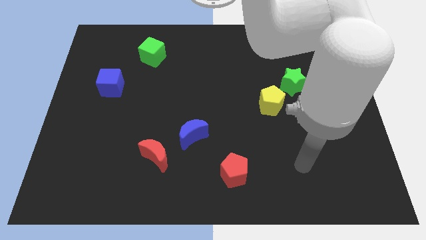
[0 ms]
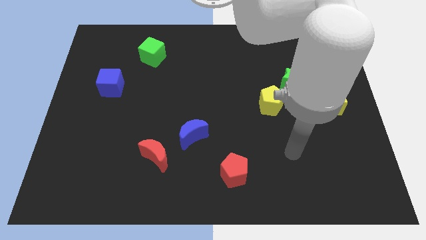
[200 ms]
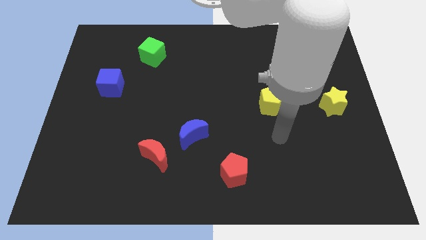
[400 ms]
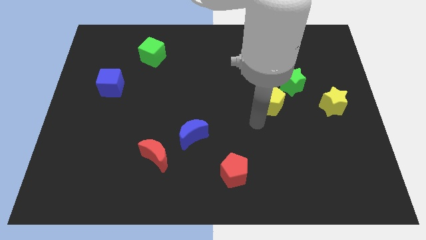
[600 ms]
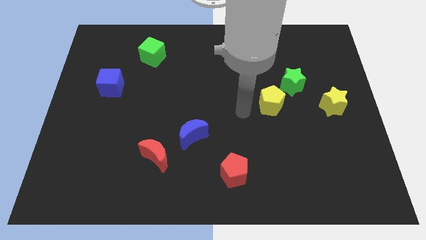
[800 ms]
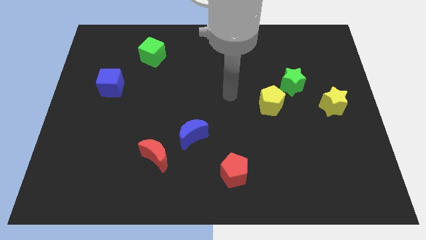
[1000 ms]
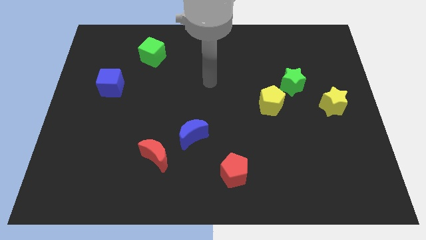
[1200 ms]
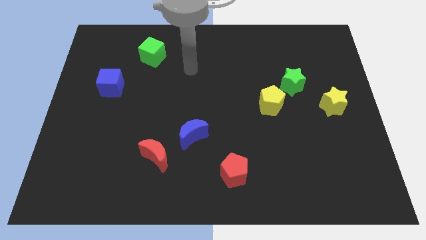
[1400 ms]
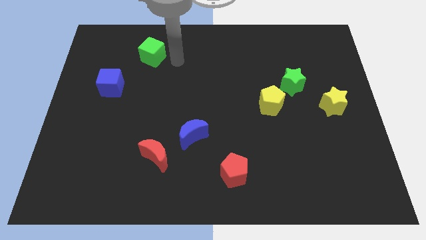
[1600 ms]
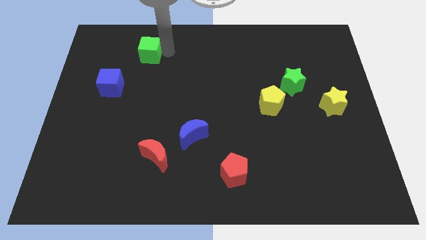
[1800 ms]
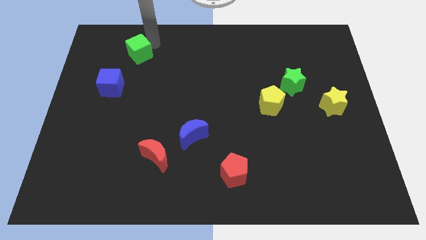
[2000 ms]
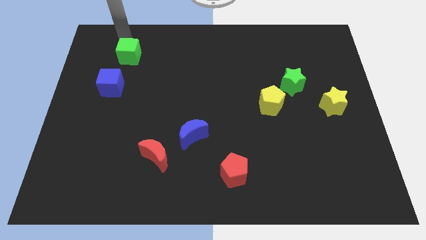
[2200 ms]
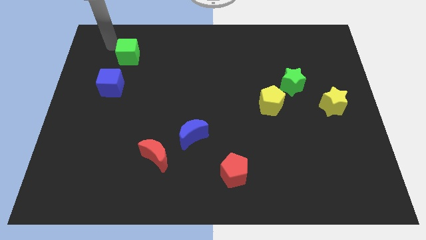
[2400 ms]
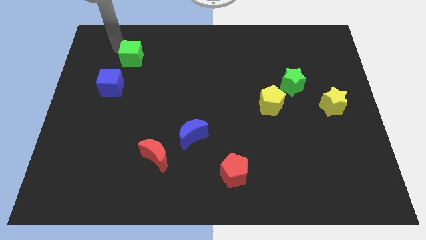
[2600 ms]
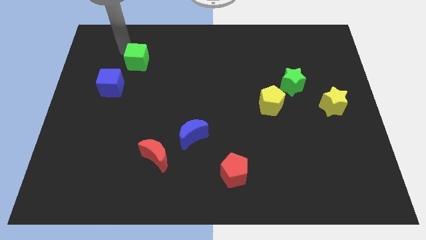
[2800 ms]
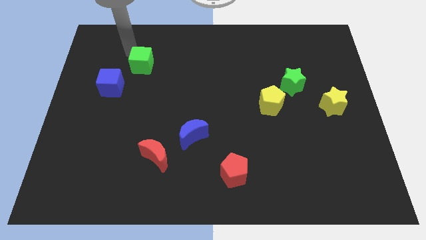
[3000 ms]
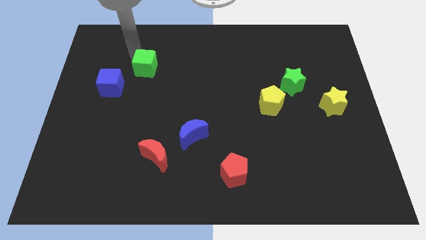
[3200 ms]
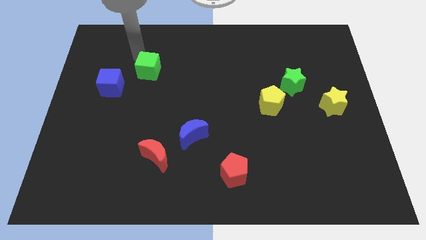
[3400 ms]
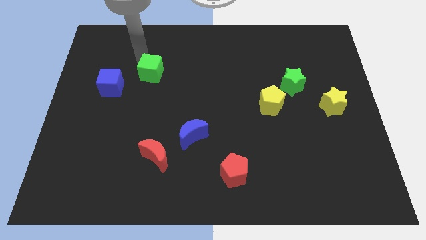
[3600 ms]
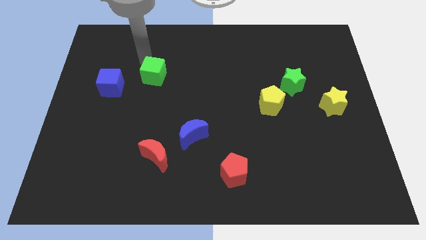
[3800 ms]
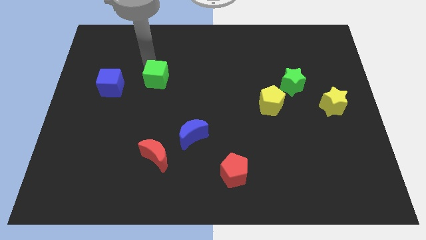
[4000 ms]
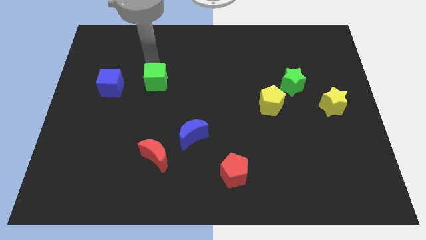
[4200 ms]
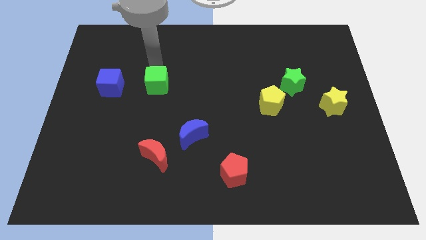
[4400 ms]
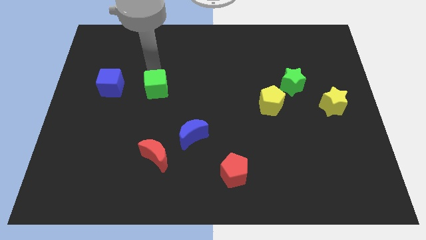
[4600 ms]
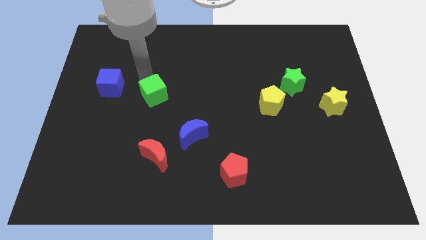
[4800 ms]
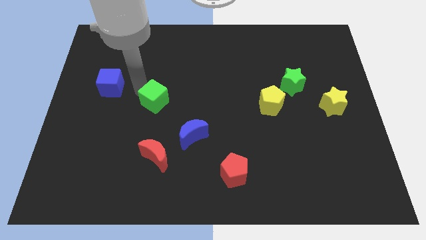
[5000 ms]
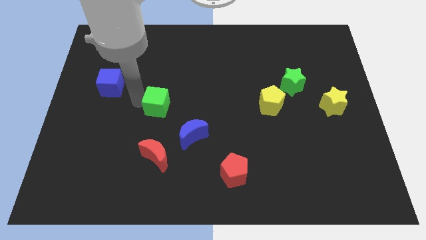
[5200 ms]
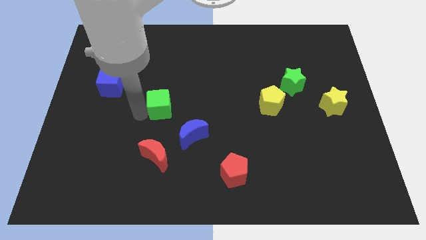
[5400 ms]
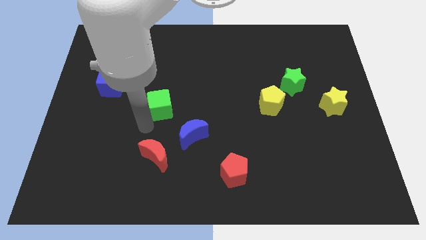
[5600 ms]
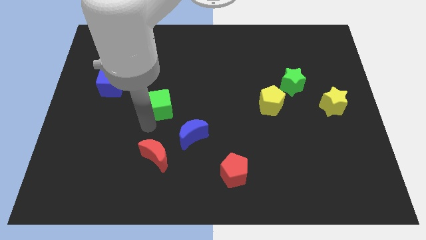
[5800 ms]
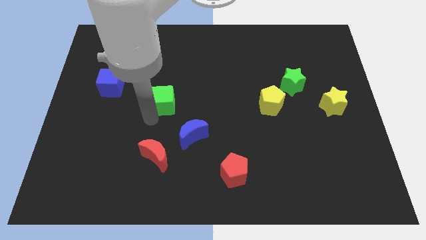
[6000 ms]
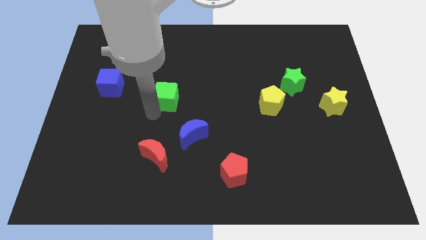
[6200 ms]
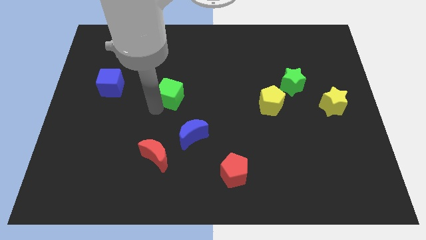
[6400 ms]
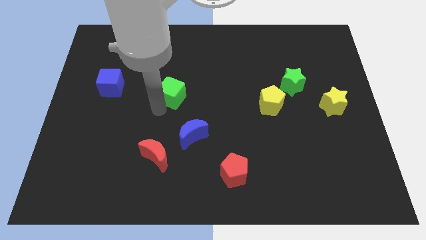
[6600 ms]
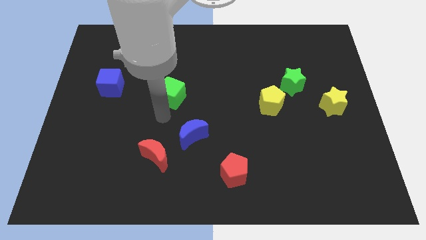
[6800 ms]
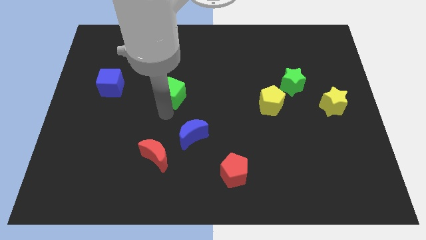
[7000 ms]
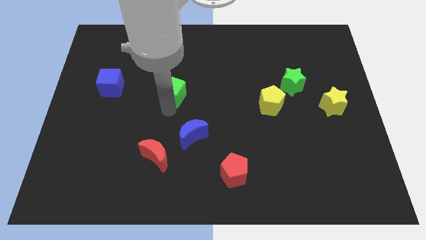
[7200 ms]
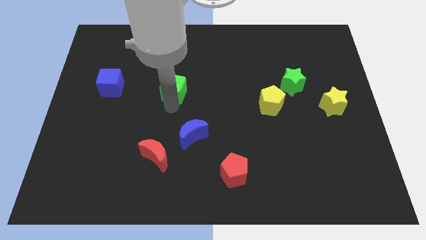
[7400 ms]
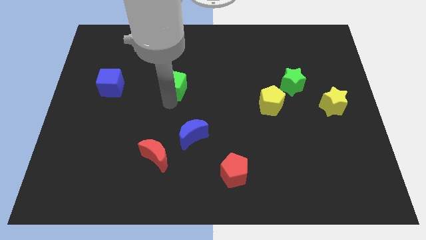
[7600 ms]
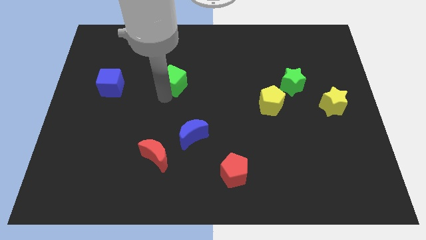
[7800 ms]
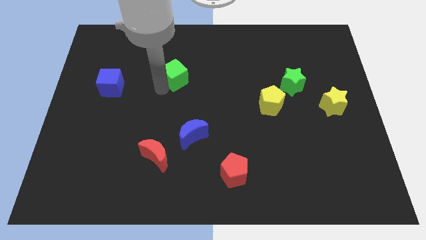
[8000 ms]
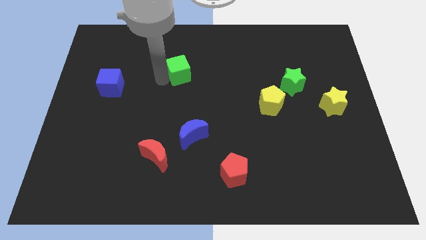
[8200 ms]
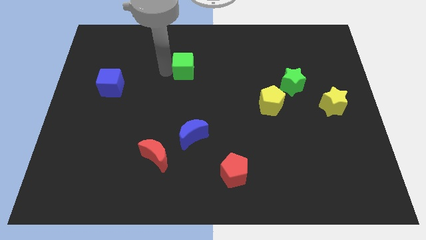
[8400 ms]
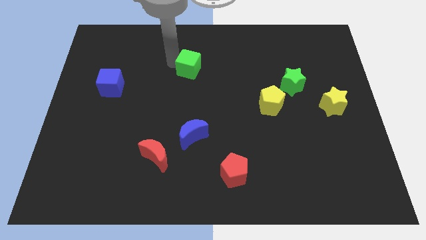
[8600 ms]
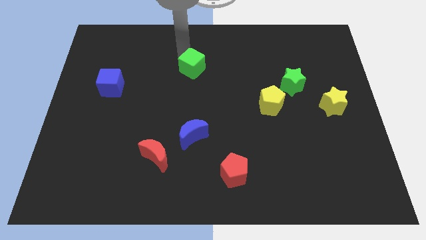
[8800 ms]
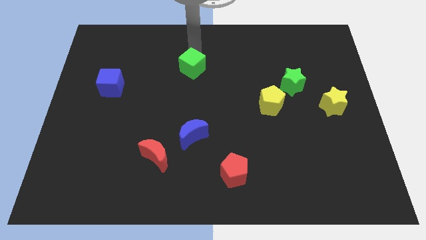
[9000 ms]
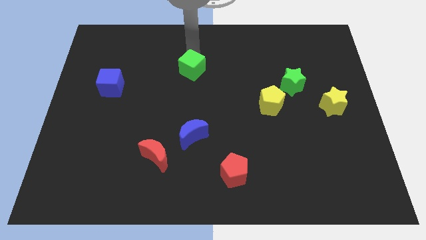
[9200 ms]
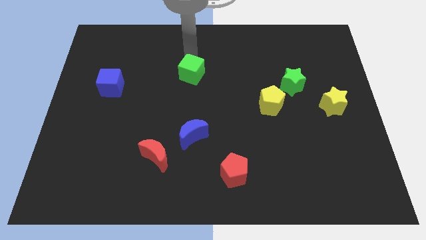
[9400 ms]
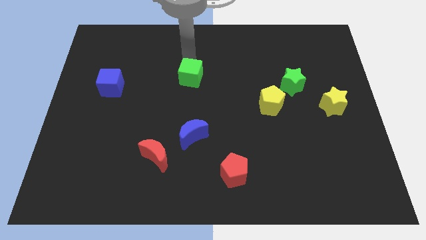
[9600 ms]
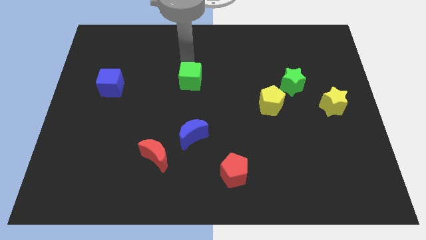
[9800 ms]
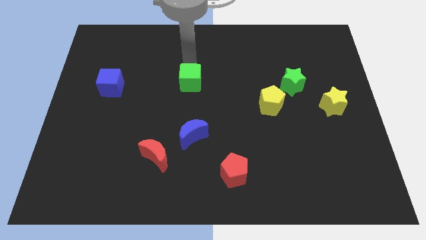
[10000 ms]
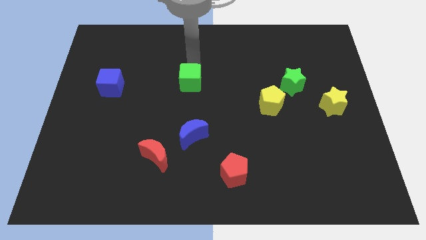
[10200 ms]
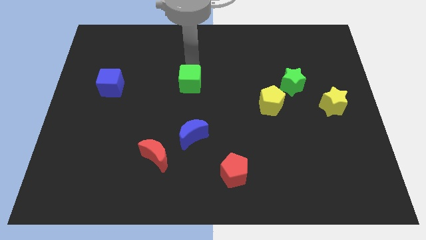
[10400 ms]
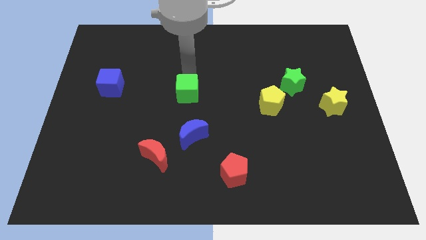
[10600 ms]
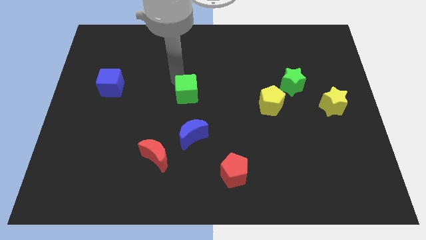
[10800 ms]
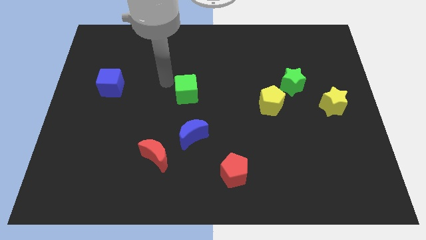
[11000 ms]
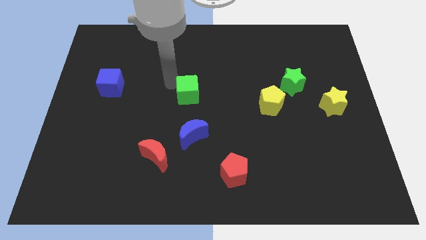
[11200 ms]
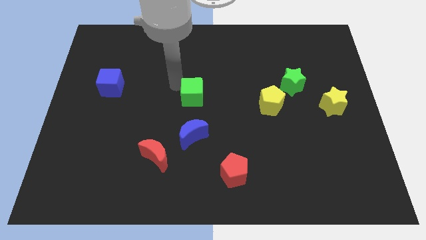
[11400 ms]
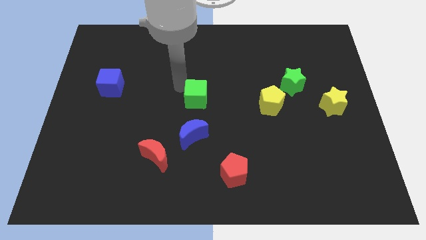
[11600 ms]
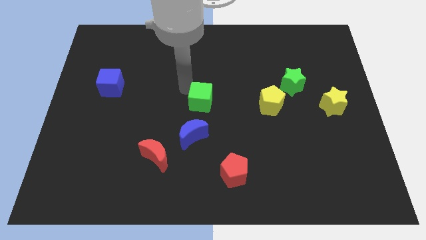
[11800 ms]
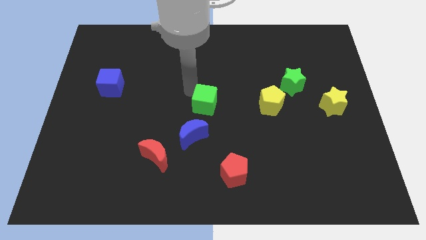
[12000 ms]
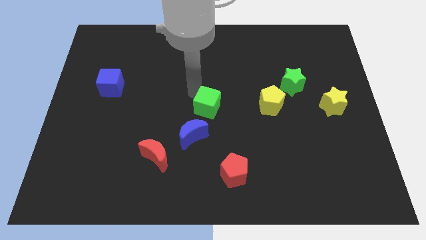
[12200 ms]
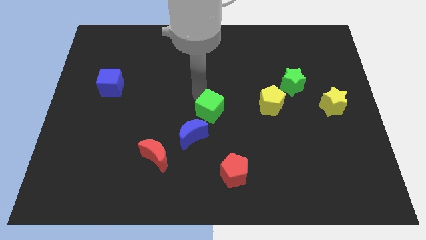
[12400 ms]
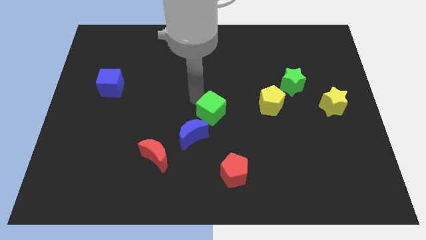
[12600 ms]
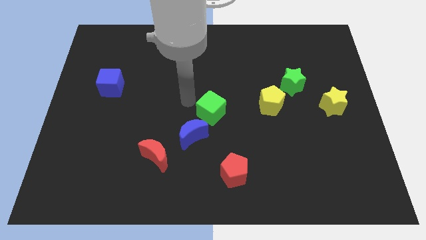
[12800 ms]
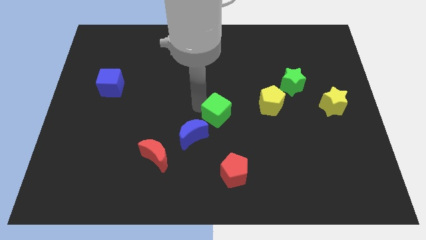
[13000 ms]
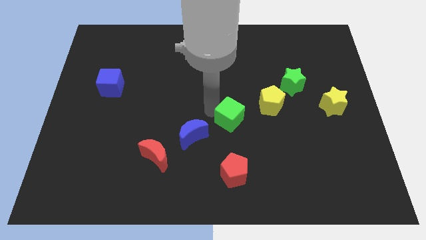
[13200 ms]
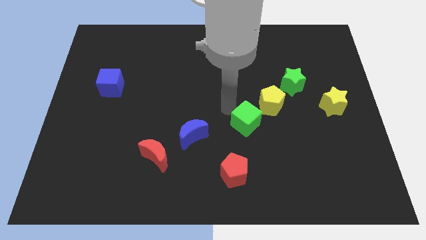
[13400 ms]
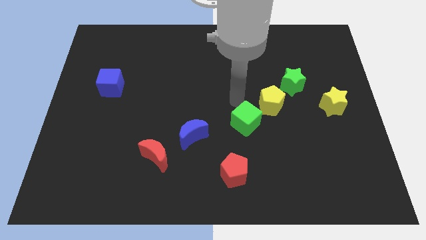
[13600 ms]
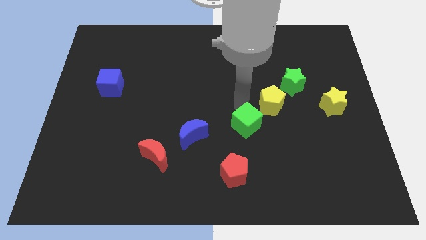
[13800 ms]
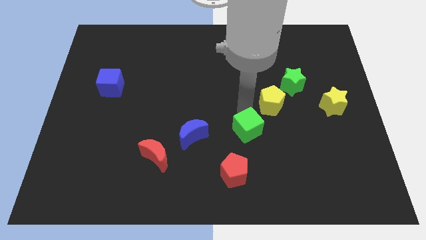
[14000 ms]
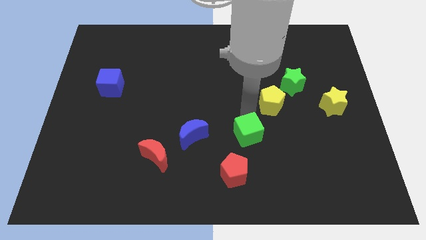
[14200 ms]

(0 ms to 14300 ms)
move the green cube to the top right side of the red pentagon
